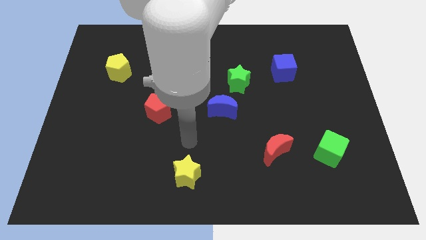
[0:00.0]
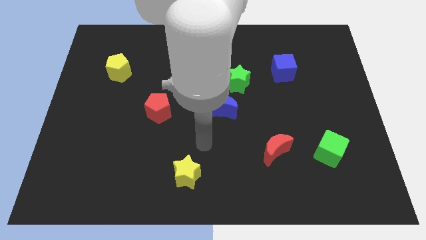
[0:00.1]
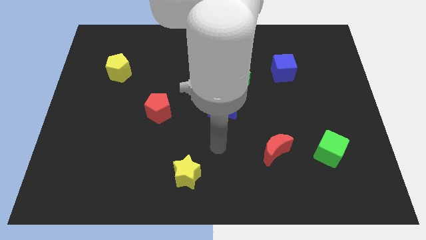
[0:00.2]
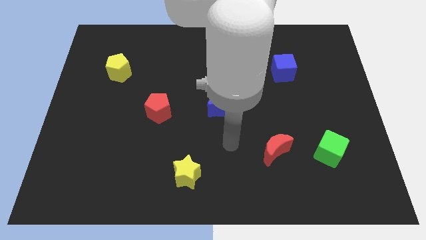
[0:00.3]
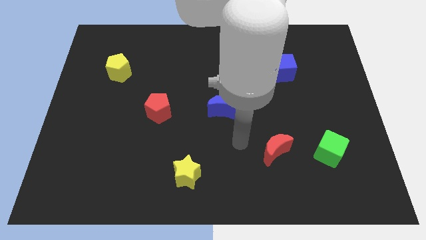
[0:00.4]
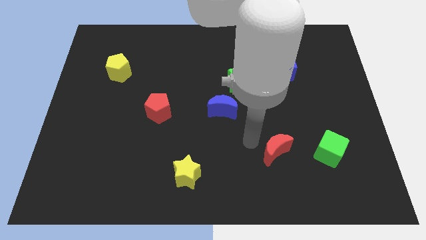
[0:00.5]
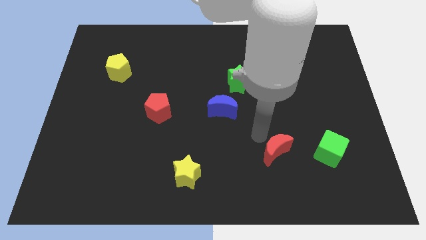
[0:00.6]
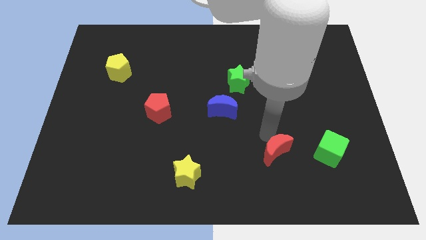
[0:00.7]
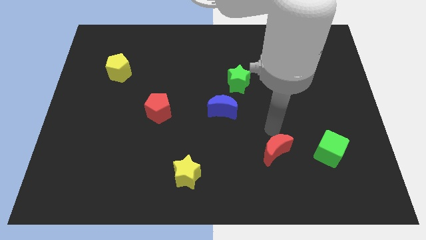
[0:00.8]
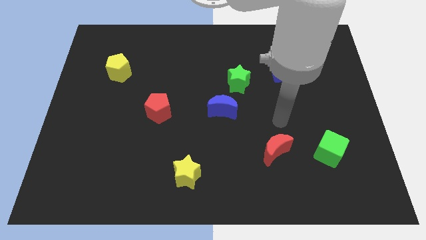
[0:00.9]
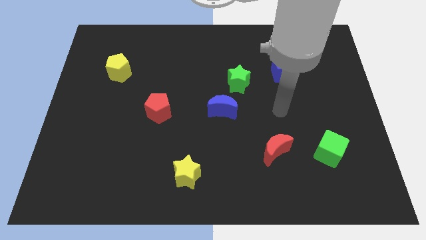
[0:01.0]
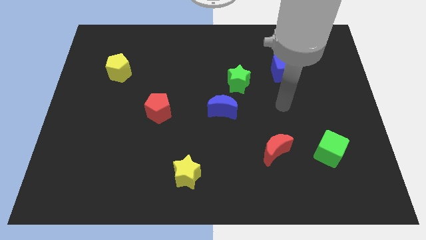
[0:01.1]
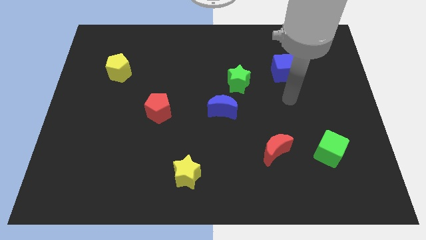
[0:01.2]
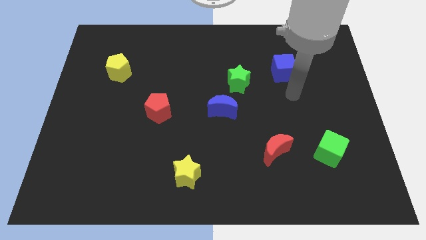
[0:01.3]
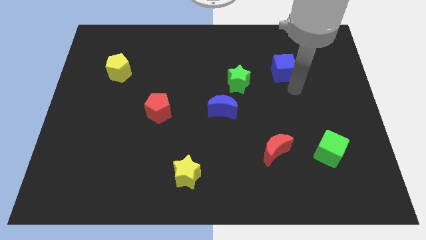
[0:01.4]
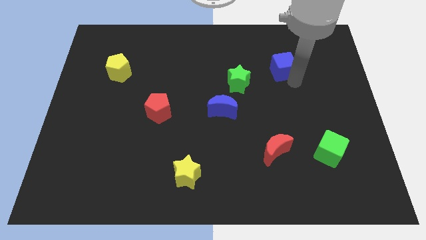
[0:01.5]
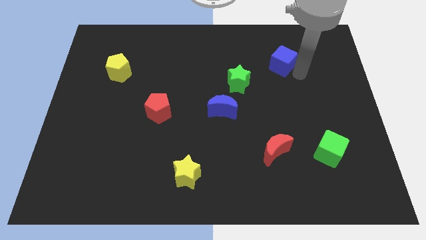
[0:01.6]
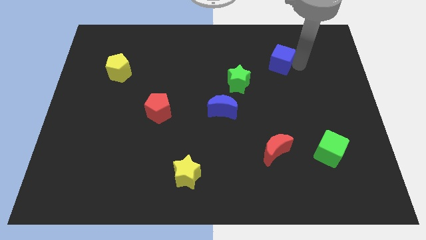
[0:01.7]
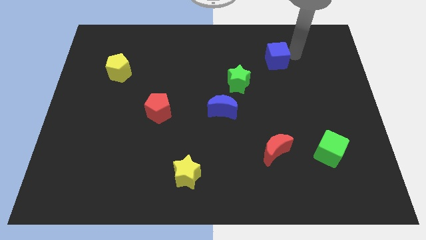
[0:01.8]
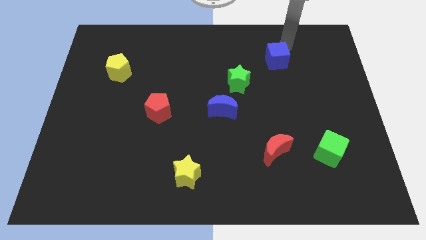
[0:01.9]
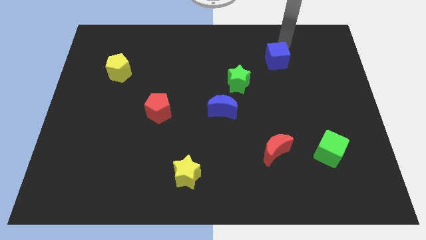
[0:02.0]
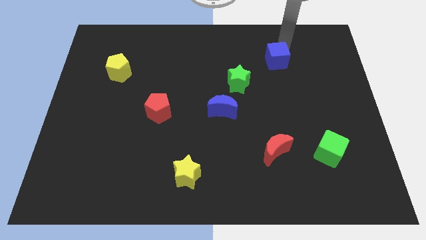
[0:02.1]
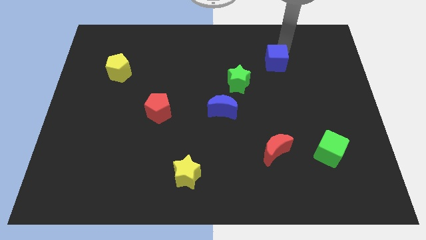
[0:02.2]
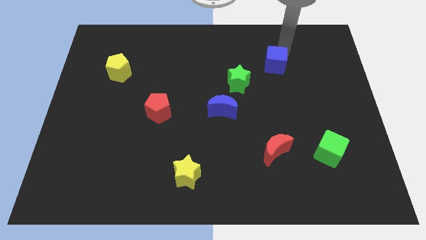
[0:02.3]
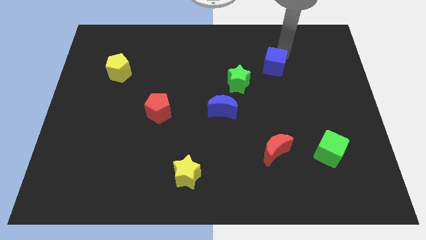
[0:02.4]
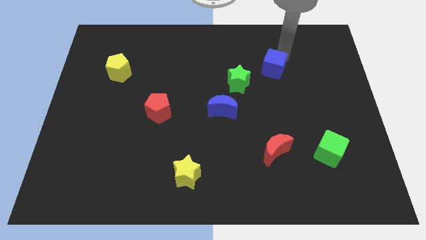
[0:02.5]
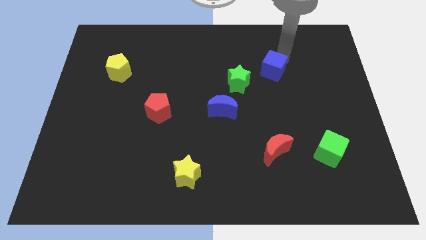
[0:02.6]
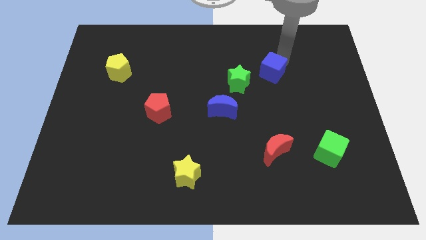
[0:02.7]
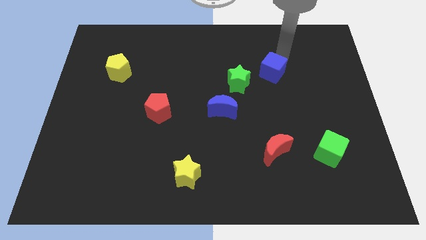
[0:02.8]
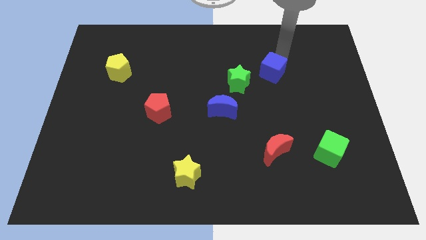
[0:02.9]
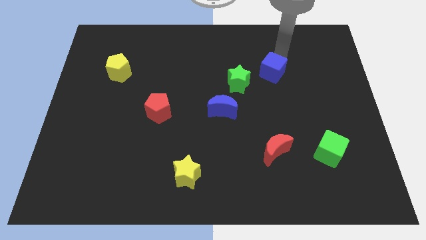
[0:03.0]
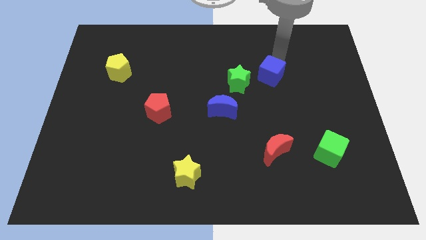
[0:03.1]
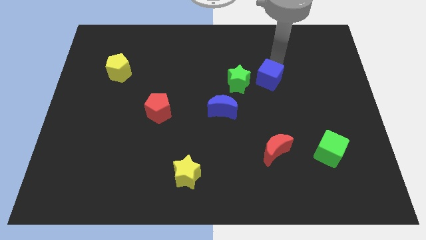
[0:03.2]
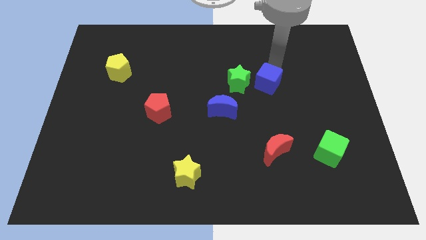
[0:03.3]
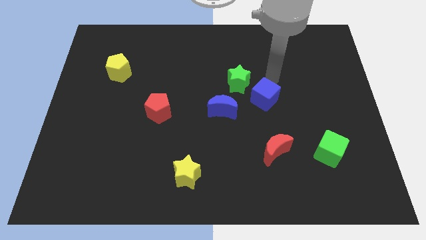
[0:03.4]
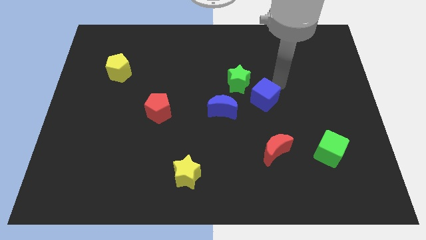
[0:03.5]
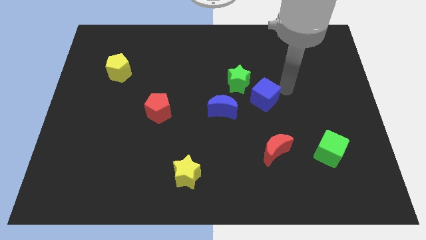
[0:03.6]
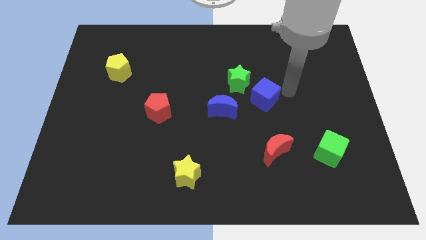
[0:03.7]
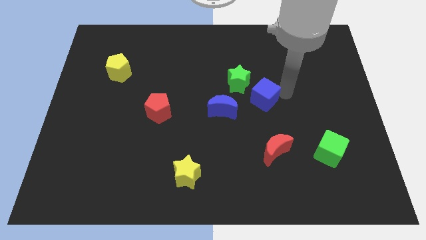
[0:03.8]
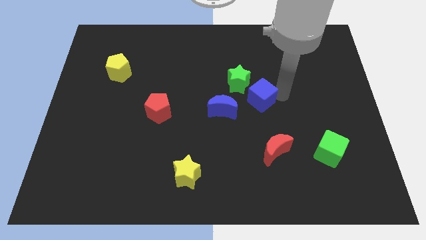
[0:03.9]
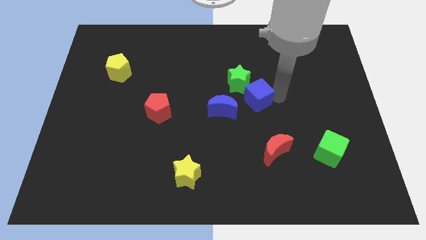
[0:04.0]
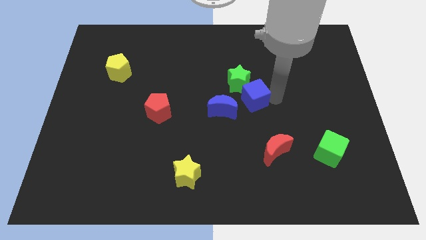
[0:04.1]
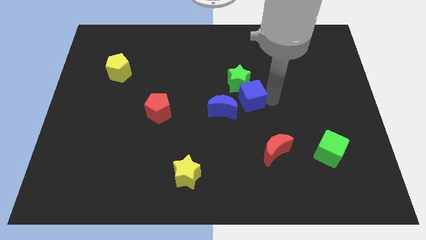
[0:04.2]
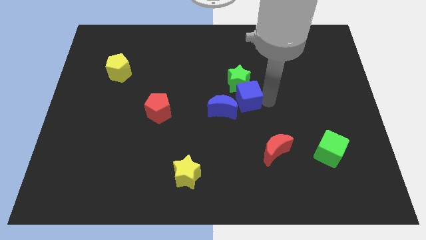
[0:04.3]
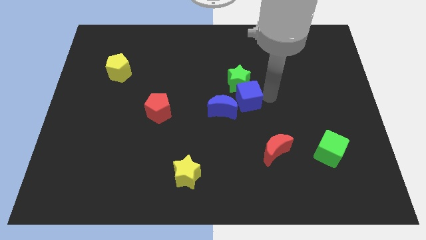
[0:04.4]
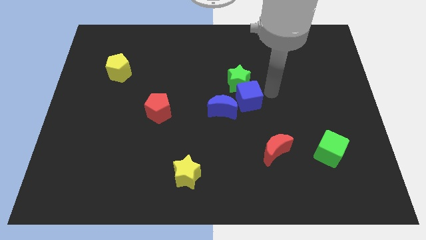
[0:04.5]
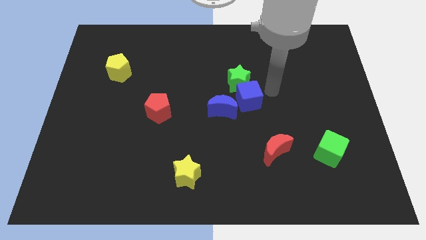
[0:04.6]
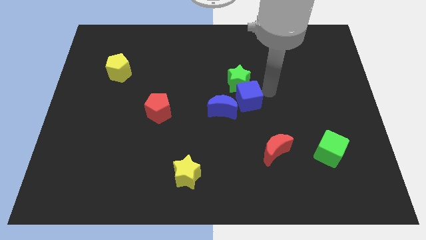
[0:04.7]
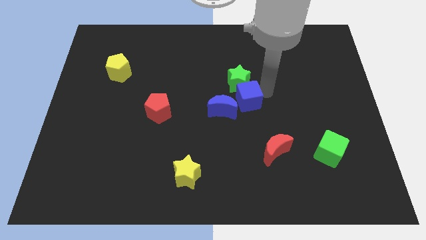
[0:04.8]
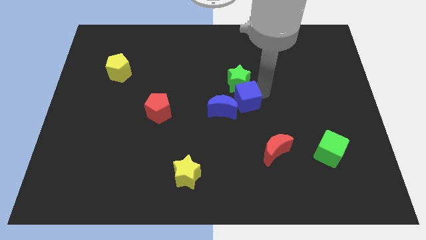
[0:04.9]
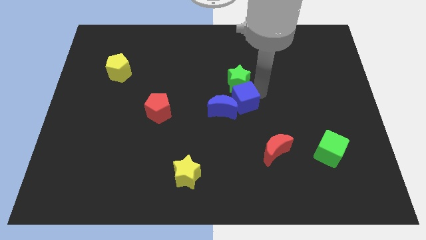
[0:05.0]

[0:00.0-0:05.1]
move the blue cube next to the blue moon

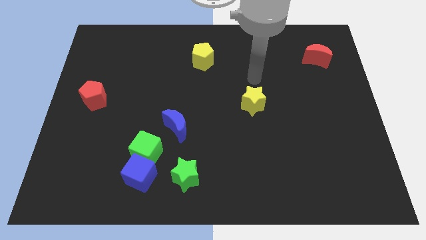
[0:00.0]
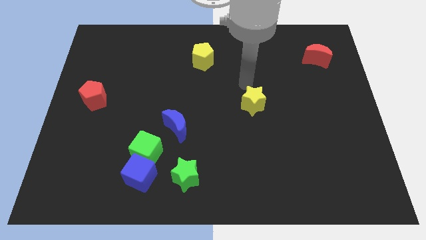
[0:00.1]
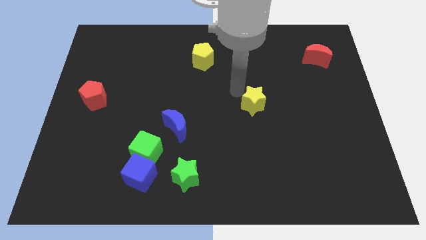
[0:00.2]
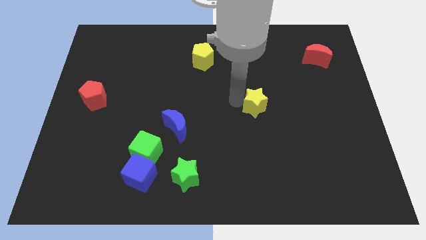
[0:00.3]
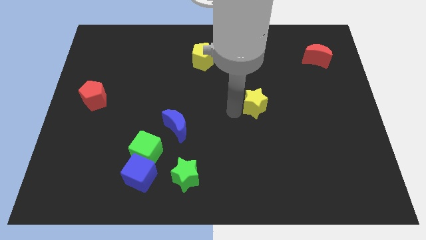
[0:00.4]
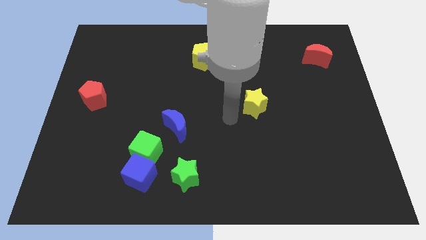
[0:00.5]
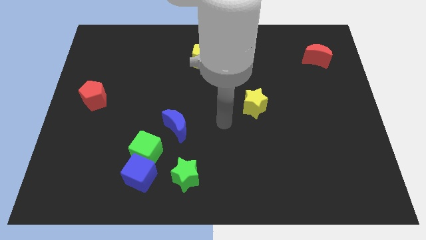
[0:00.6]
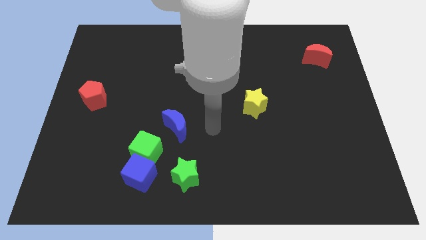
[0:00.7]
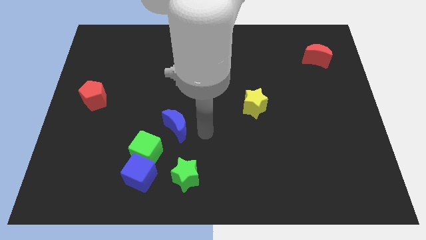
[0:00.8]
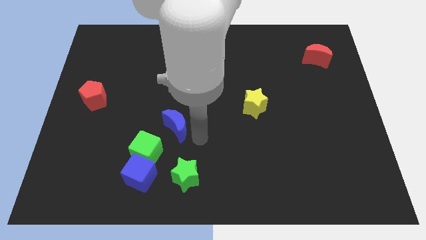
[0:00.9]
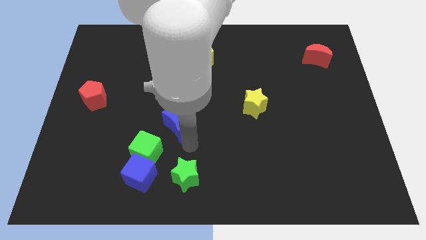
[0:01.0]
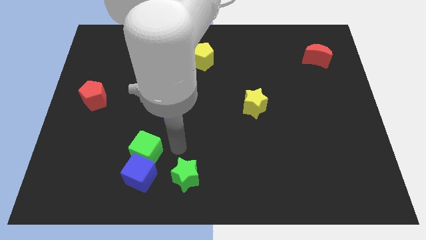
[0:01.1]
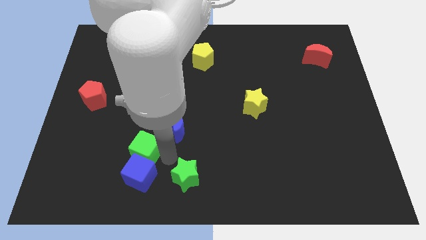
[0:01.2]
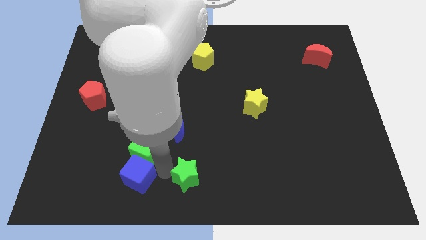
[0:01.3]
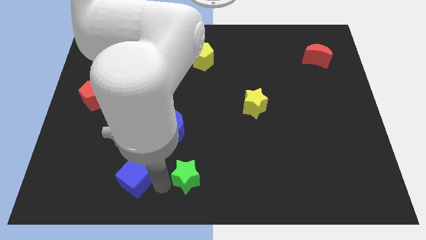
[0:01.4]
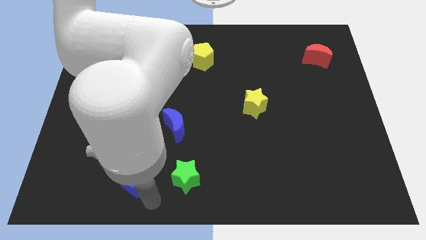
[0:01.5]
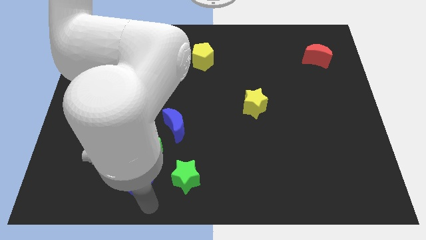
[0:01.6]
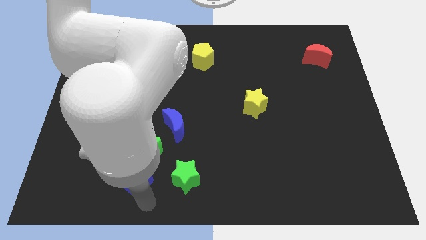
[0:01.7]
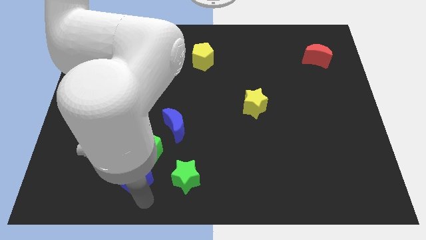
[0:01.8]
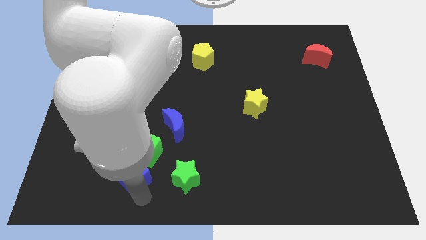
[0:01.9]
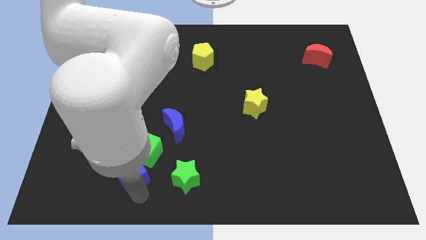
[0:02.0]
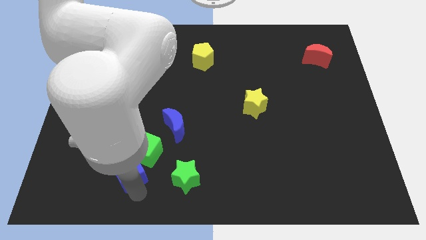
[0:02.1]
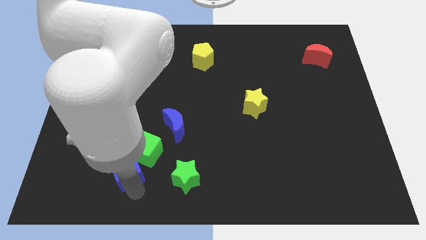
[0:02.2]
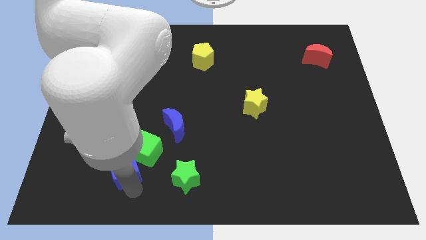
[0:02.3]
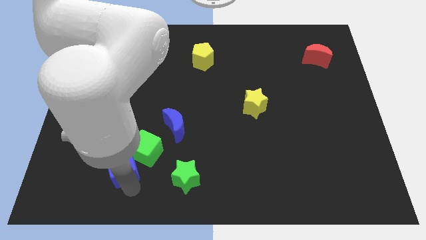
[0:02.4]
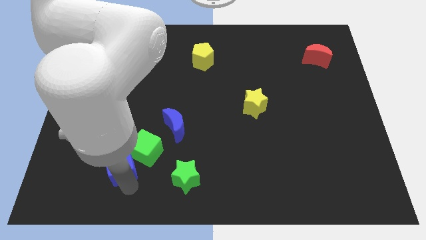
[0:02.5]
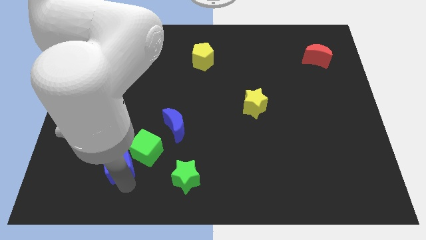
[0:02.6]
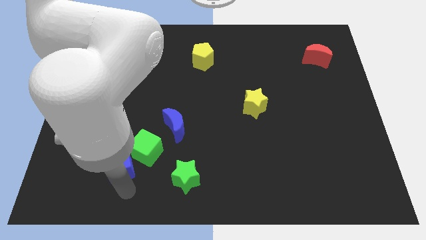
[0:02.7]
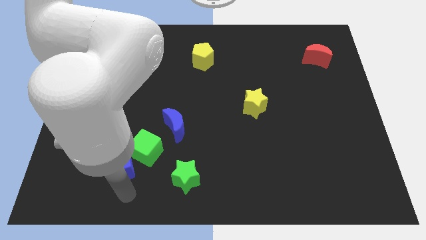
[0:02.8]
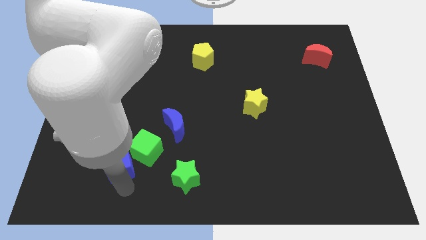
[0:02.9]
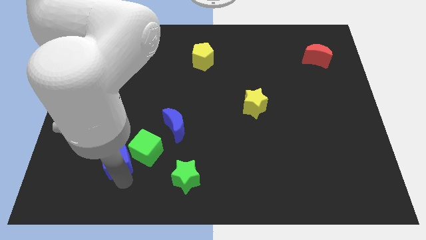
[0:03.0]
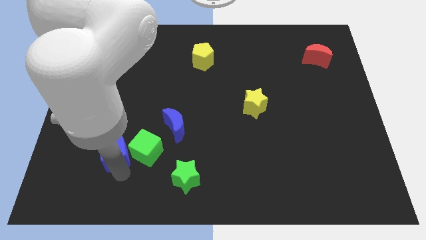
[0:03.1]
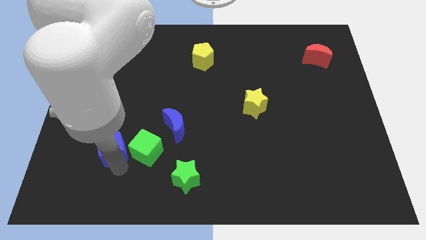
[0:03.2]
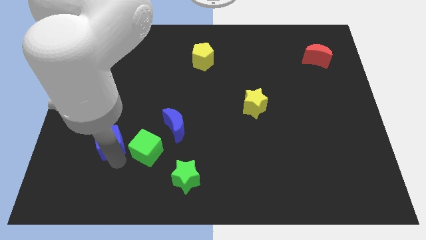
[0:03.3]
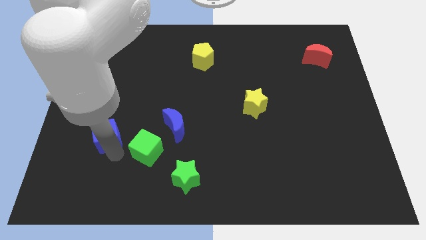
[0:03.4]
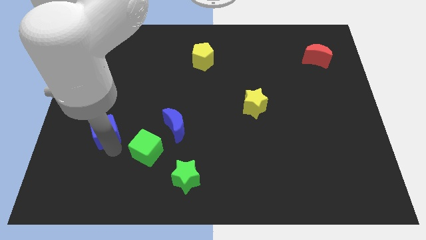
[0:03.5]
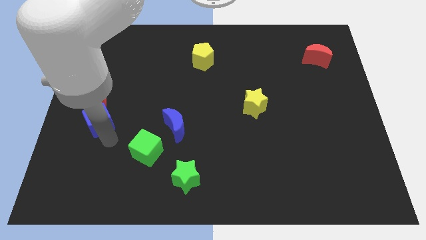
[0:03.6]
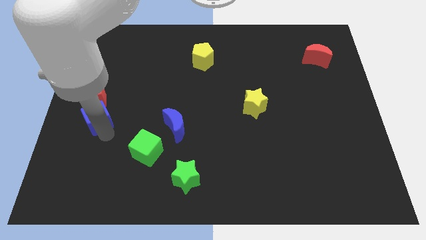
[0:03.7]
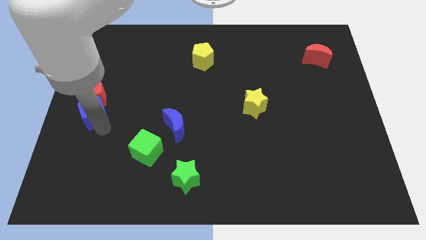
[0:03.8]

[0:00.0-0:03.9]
move the blue cube next to the red pentagon
